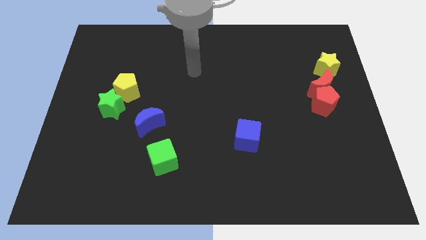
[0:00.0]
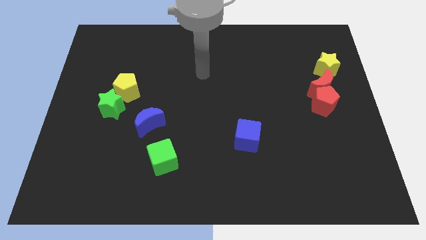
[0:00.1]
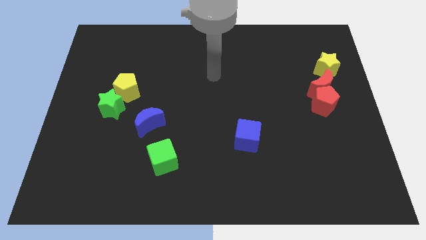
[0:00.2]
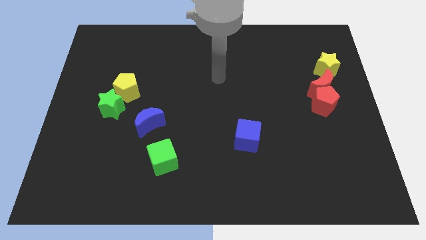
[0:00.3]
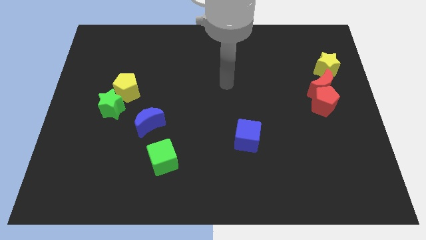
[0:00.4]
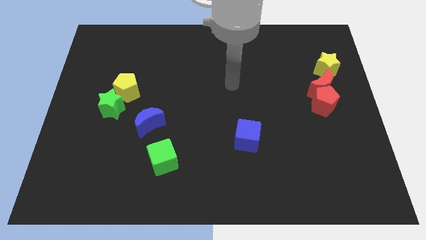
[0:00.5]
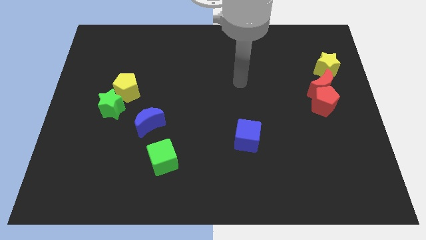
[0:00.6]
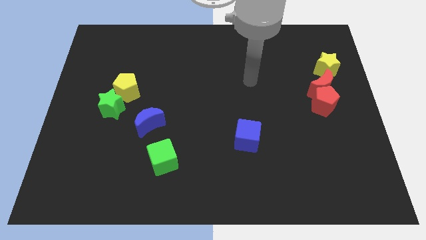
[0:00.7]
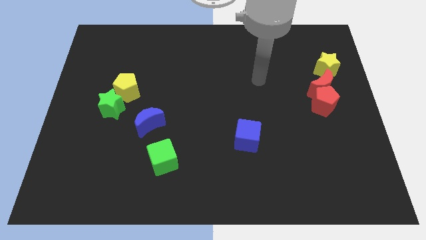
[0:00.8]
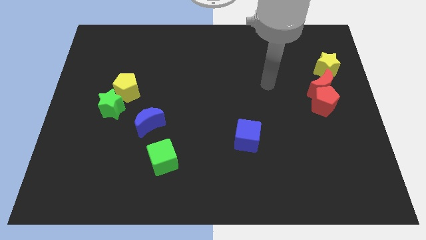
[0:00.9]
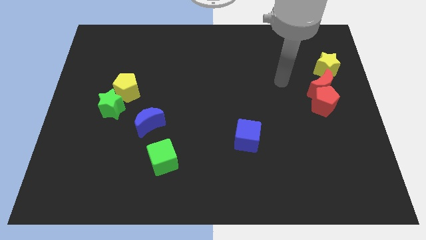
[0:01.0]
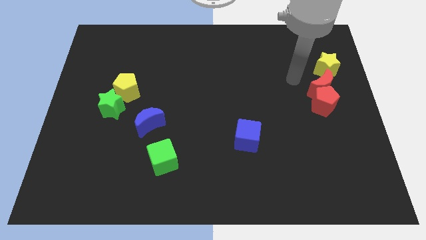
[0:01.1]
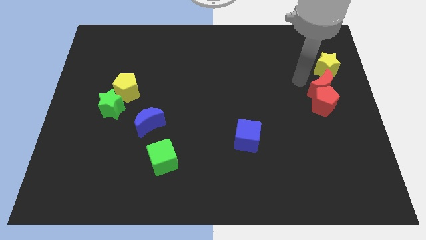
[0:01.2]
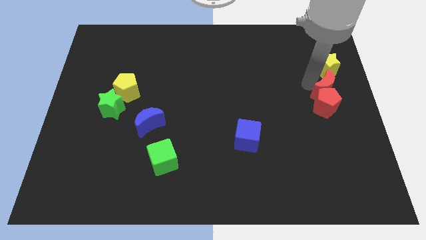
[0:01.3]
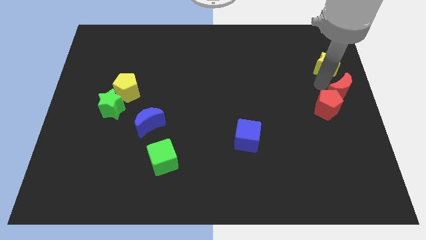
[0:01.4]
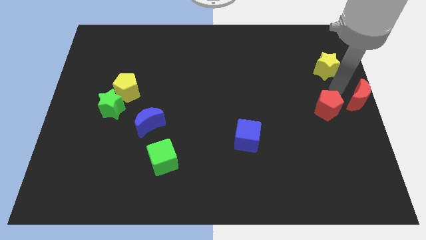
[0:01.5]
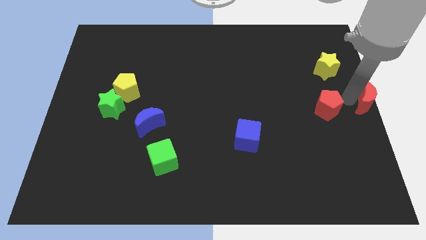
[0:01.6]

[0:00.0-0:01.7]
move the red pentagon away from the red moon

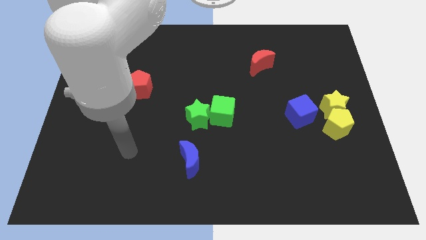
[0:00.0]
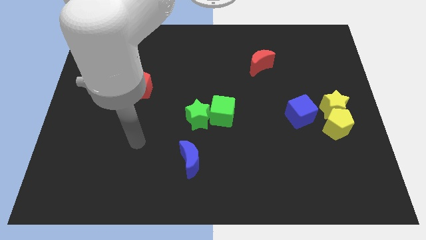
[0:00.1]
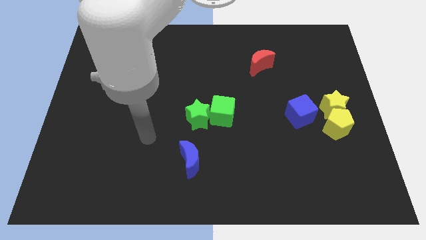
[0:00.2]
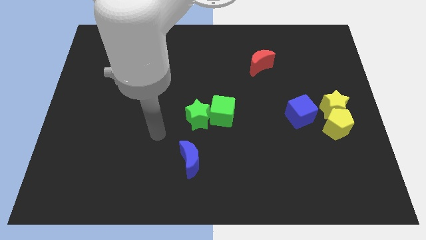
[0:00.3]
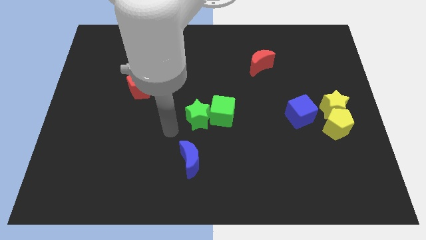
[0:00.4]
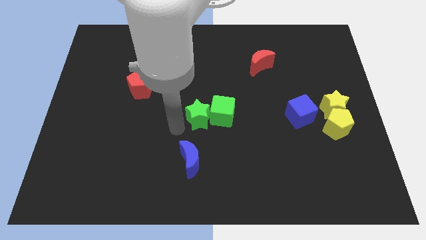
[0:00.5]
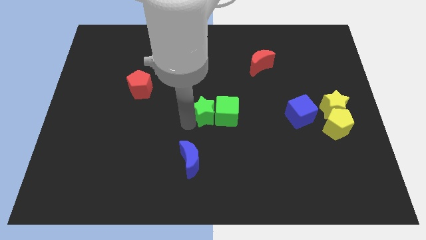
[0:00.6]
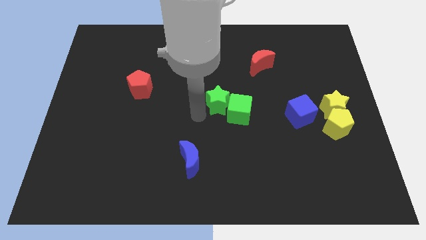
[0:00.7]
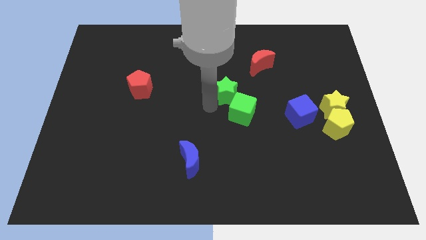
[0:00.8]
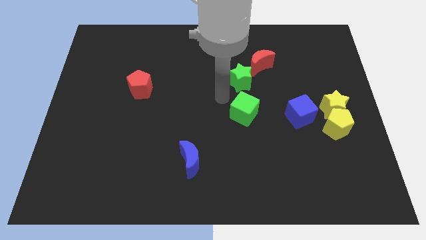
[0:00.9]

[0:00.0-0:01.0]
separate the green cube from the green star

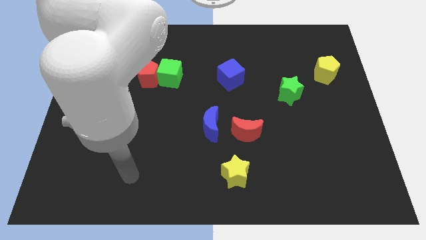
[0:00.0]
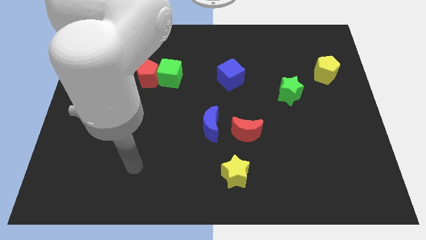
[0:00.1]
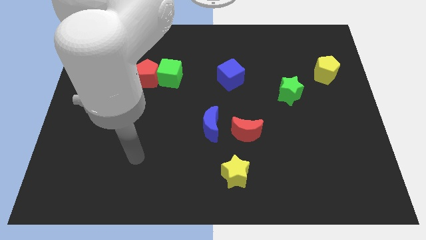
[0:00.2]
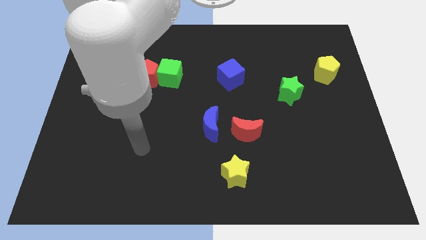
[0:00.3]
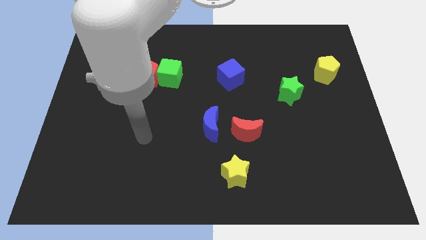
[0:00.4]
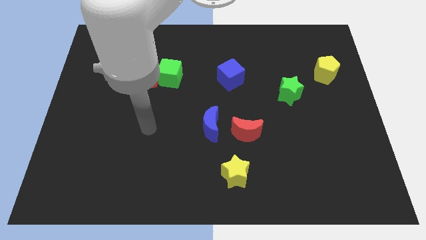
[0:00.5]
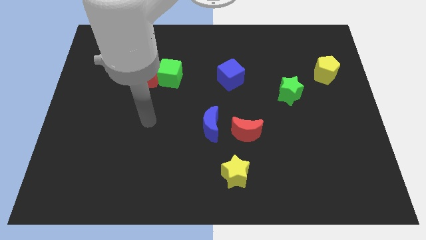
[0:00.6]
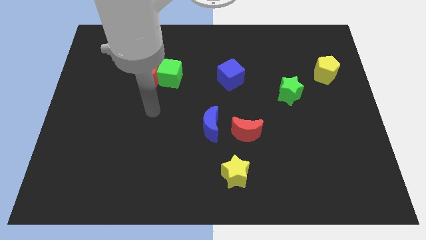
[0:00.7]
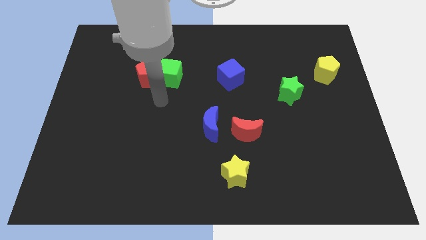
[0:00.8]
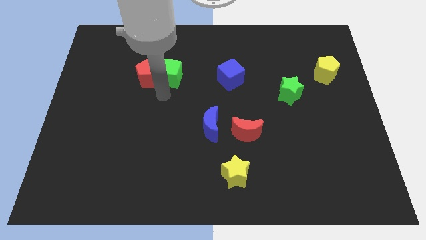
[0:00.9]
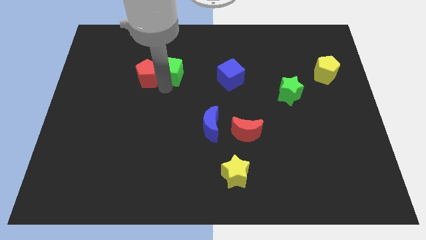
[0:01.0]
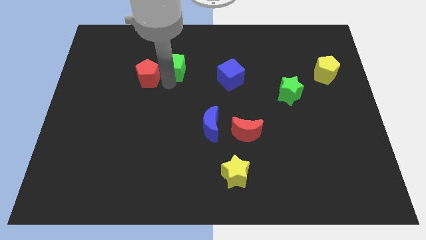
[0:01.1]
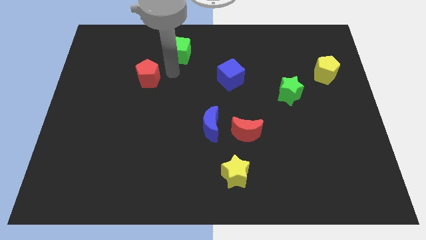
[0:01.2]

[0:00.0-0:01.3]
separate the red pentagon from the green cube

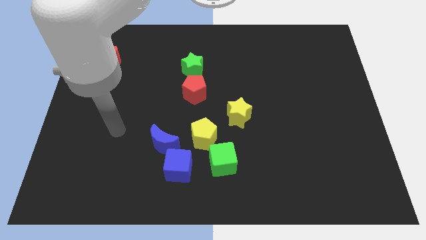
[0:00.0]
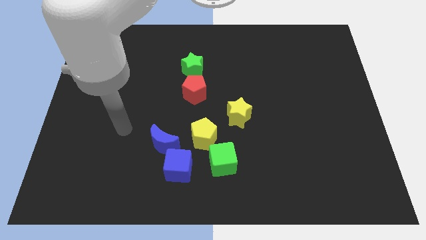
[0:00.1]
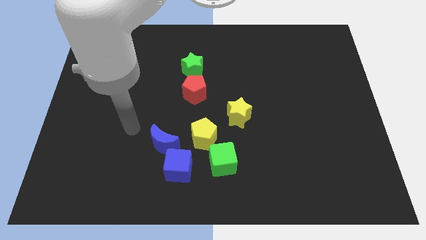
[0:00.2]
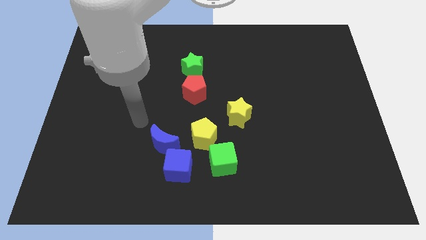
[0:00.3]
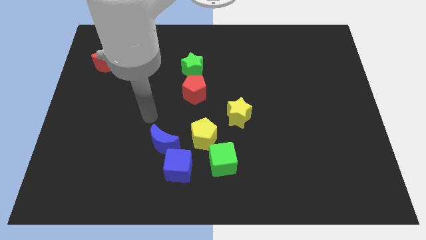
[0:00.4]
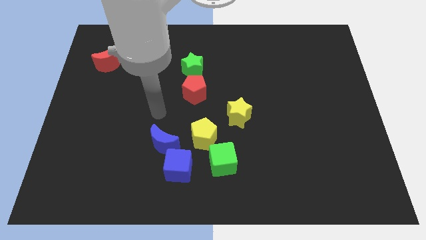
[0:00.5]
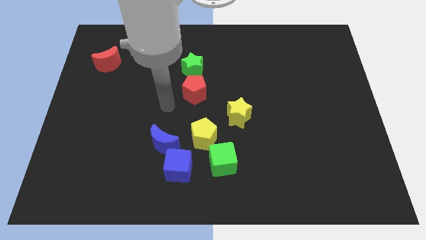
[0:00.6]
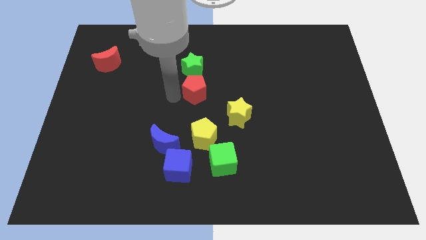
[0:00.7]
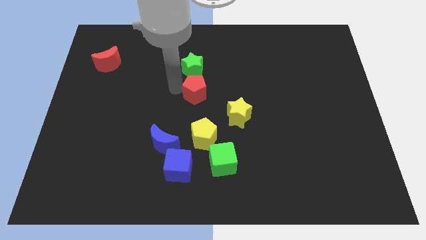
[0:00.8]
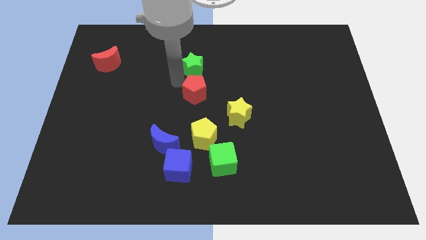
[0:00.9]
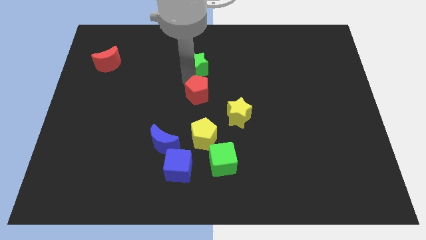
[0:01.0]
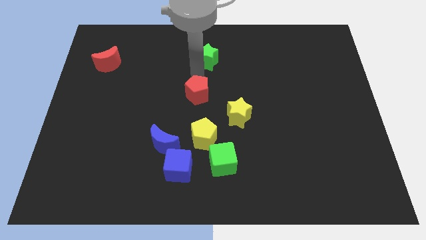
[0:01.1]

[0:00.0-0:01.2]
move the red pentagon away from the green star

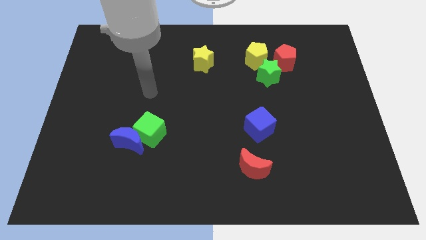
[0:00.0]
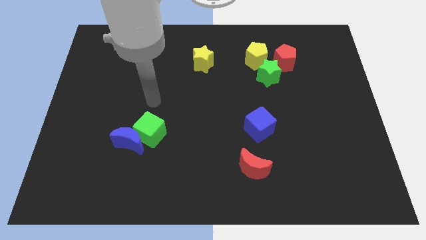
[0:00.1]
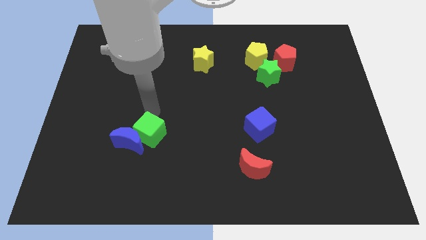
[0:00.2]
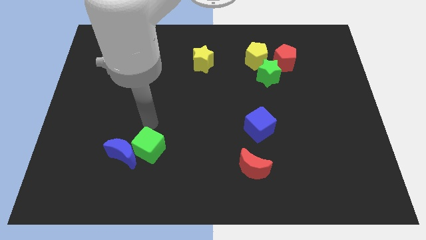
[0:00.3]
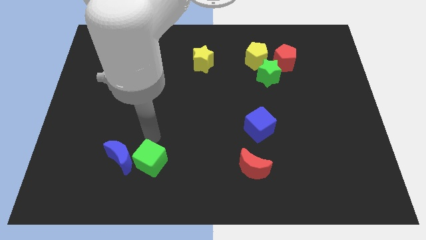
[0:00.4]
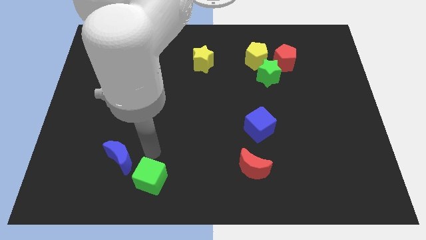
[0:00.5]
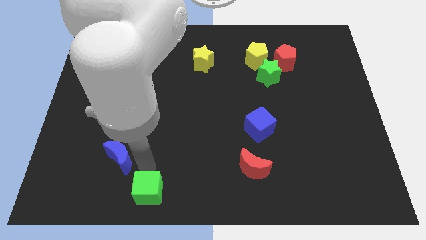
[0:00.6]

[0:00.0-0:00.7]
move the blue moon away from the green cube

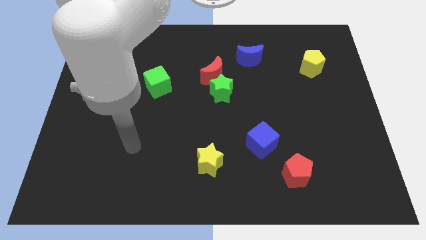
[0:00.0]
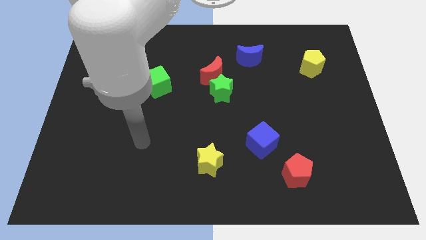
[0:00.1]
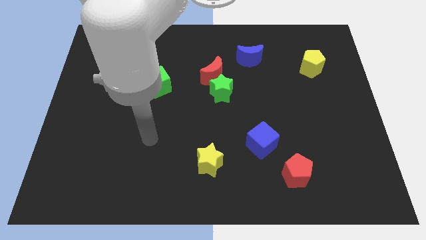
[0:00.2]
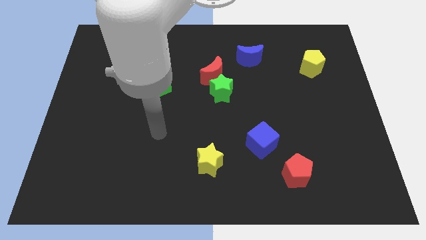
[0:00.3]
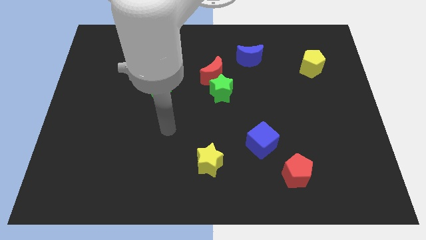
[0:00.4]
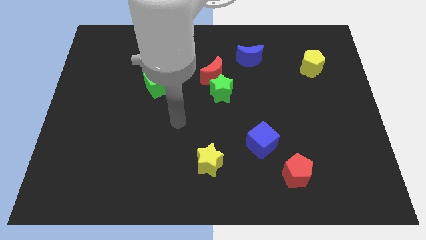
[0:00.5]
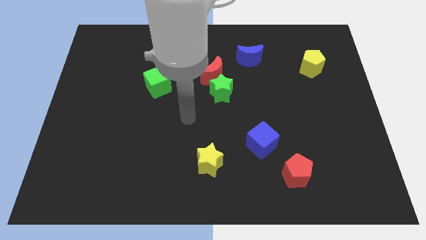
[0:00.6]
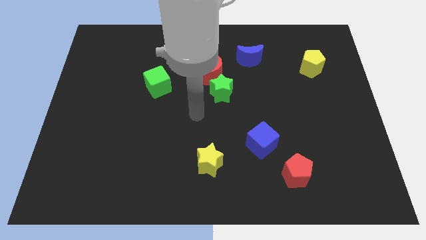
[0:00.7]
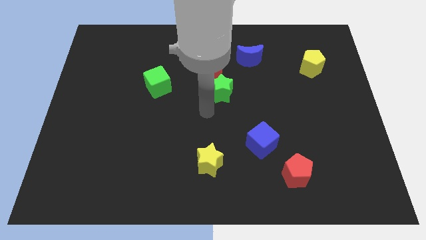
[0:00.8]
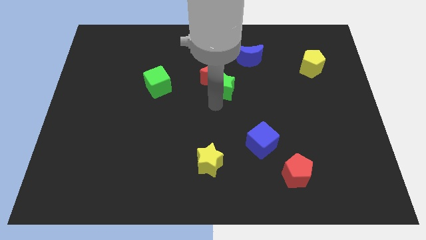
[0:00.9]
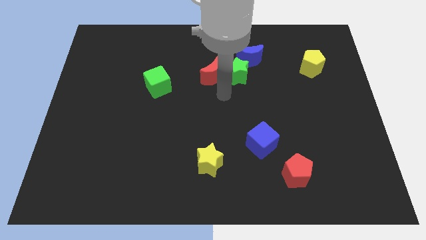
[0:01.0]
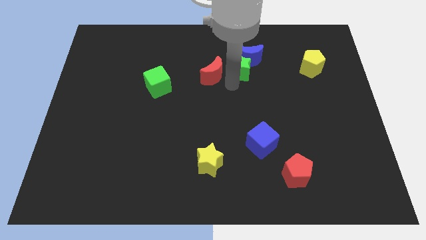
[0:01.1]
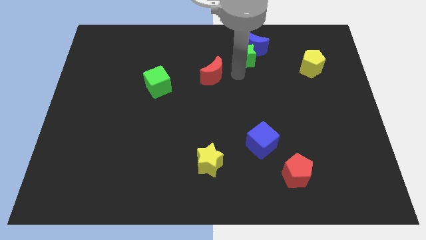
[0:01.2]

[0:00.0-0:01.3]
separate the red moon from the green star

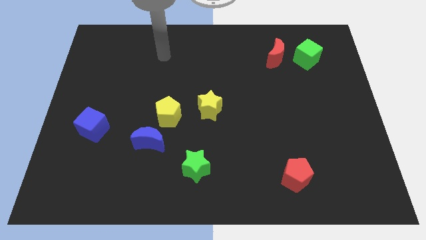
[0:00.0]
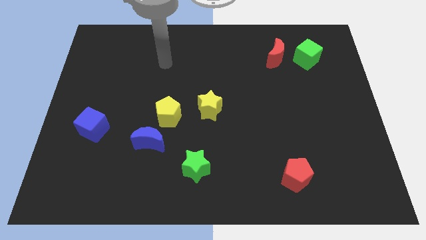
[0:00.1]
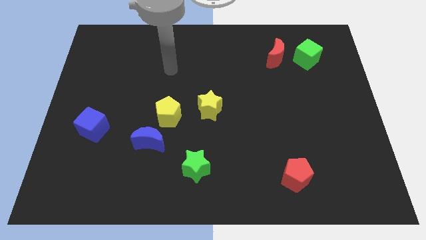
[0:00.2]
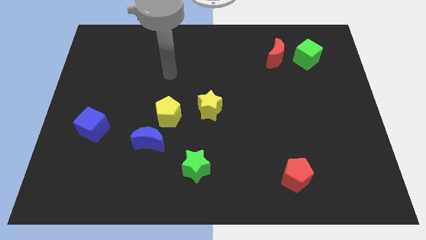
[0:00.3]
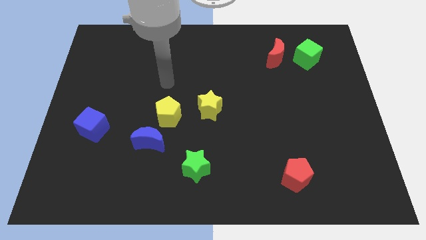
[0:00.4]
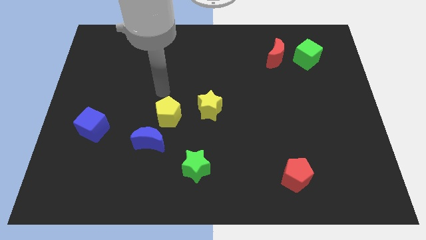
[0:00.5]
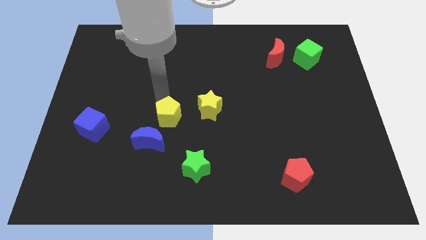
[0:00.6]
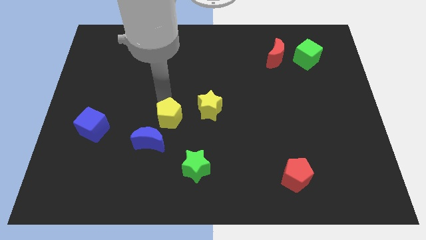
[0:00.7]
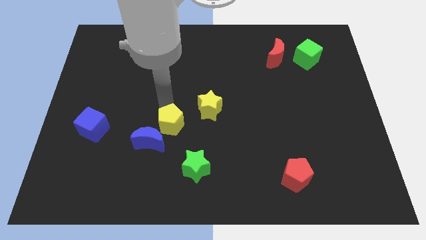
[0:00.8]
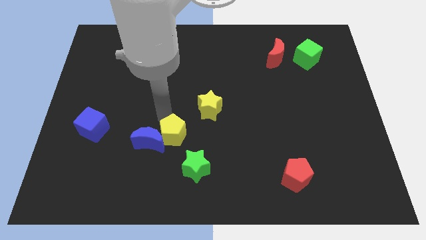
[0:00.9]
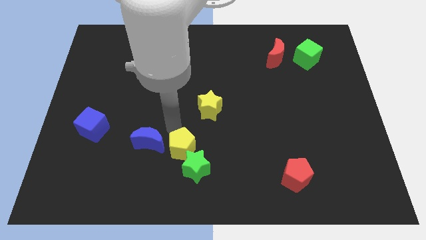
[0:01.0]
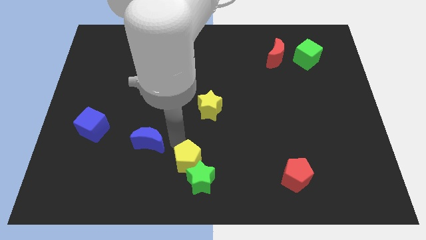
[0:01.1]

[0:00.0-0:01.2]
move the blue moon away from the yellow pentagon

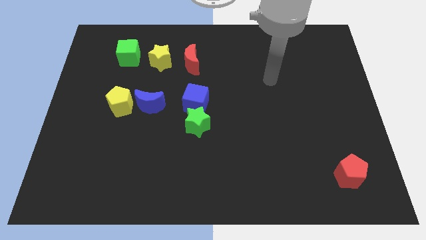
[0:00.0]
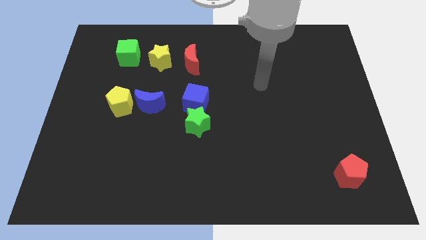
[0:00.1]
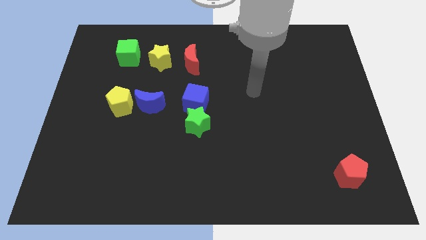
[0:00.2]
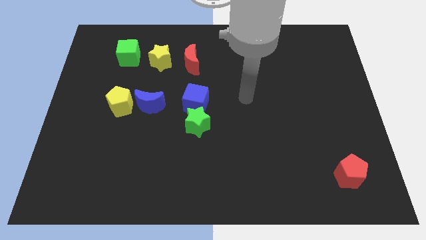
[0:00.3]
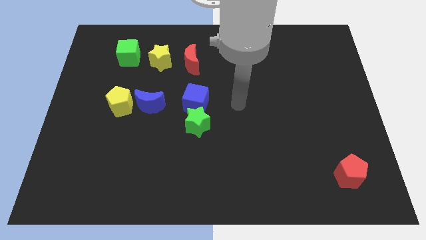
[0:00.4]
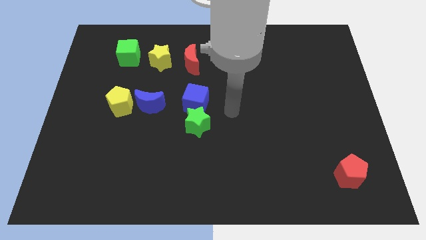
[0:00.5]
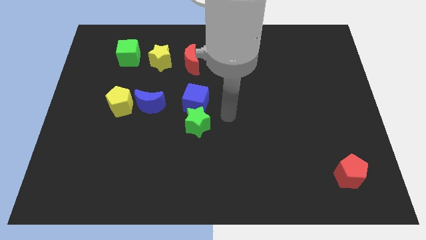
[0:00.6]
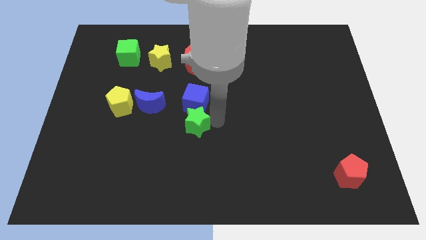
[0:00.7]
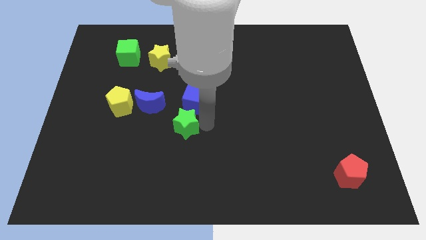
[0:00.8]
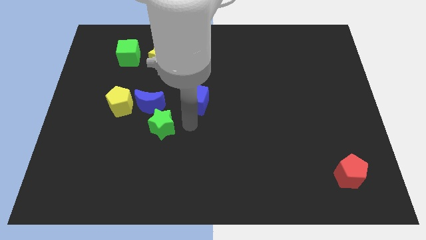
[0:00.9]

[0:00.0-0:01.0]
pull the blue cube apart from the green star

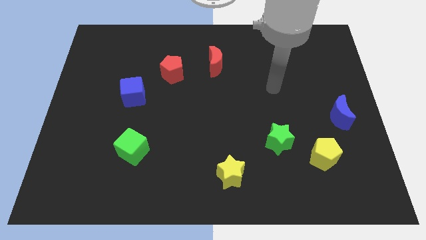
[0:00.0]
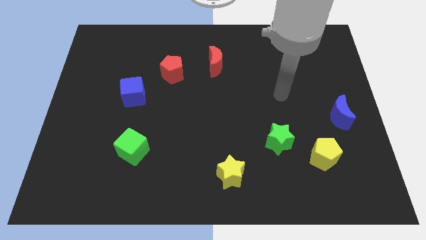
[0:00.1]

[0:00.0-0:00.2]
pull the green star apart from the yellow pentagon
